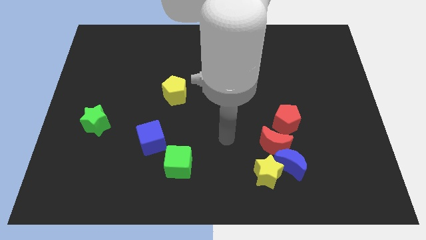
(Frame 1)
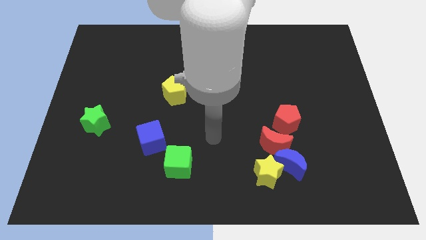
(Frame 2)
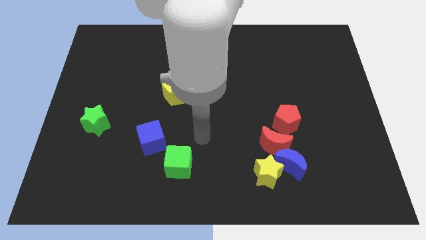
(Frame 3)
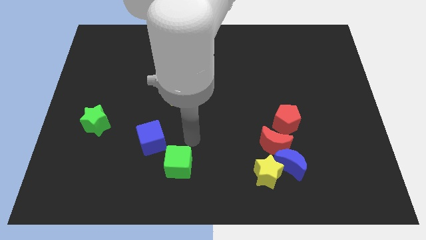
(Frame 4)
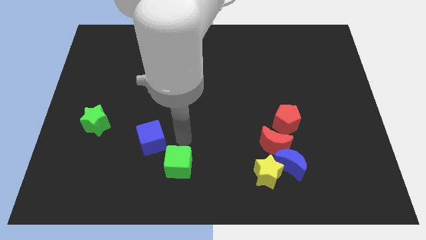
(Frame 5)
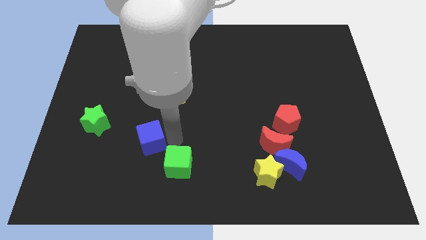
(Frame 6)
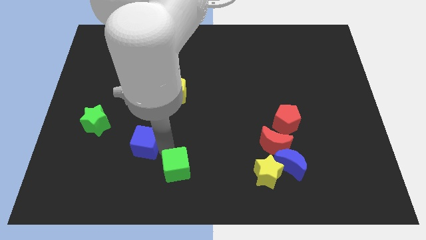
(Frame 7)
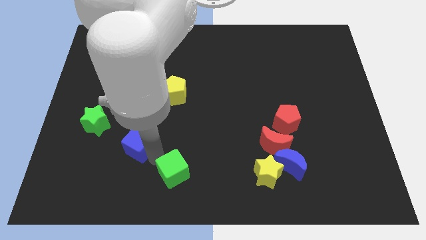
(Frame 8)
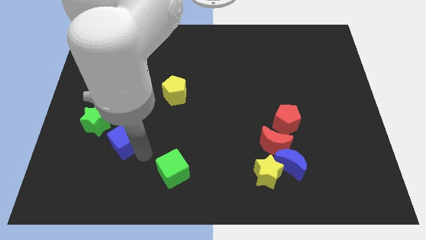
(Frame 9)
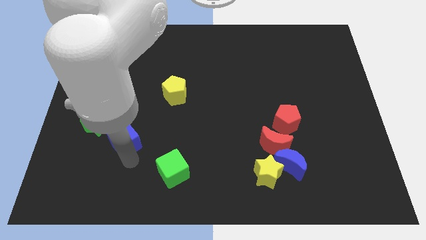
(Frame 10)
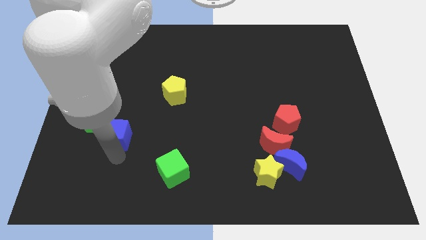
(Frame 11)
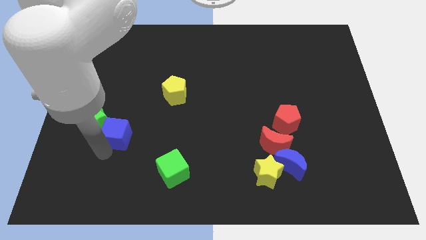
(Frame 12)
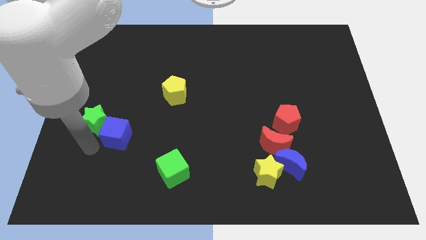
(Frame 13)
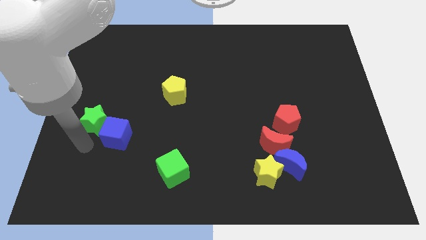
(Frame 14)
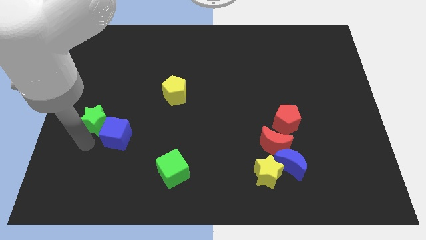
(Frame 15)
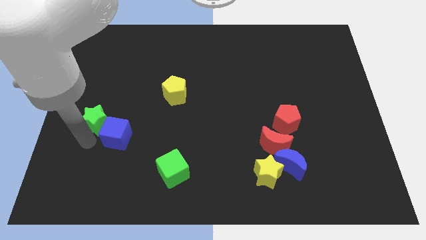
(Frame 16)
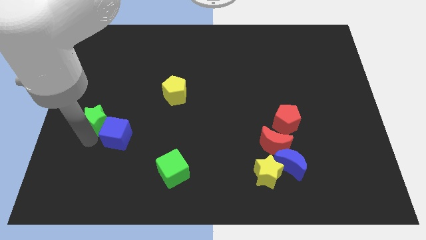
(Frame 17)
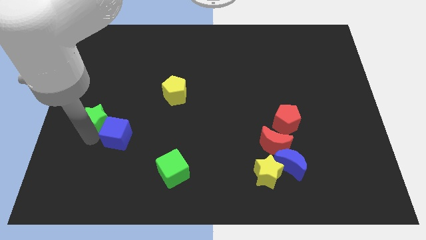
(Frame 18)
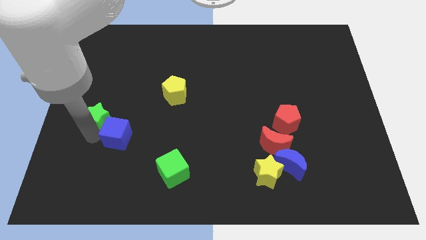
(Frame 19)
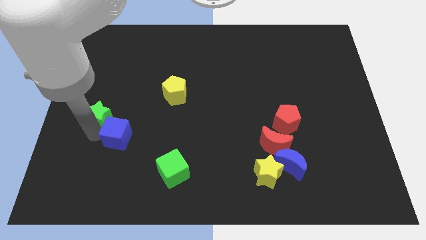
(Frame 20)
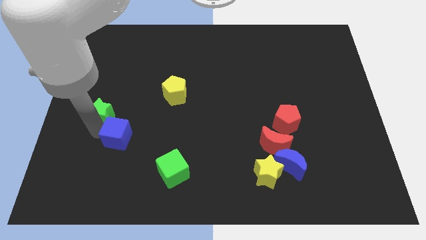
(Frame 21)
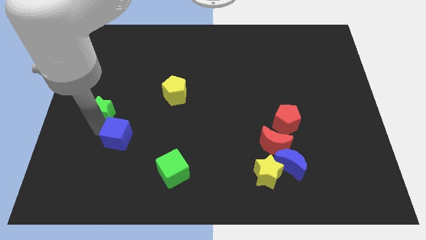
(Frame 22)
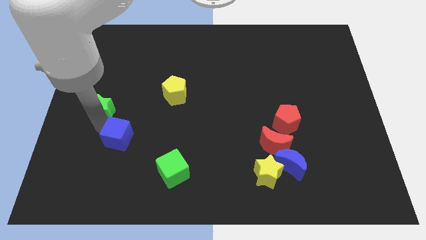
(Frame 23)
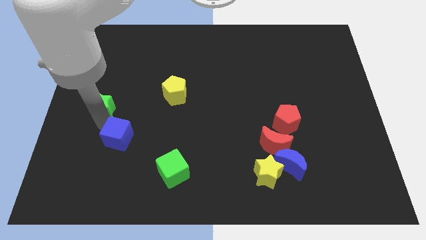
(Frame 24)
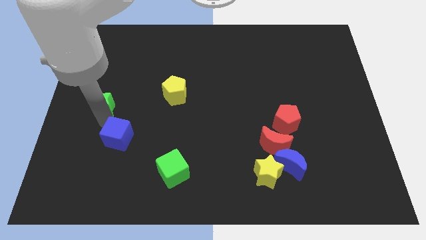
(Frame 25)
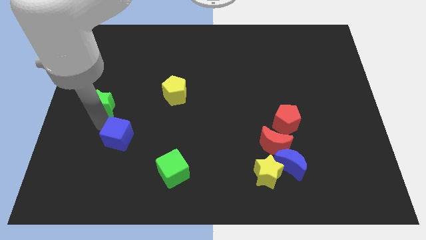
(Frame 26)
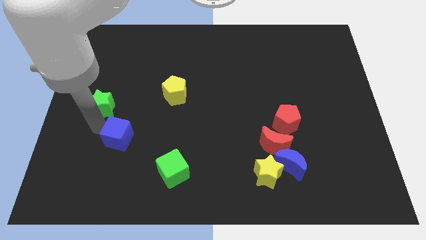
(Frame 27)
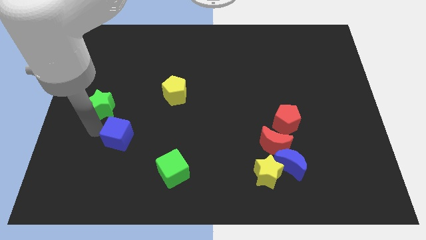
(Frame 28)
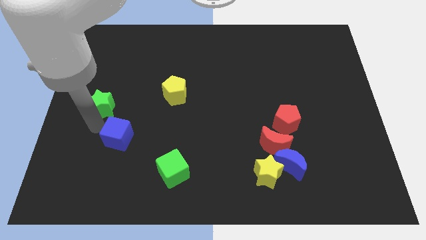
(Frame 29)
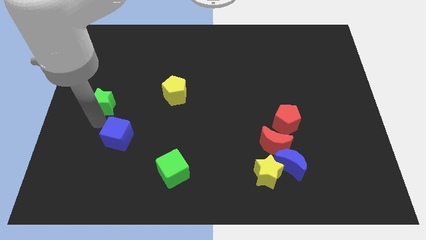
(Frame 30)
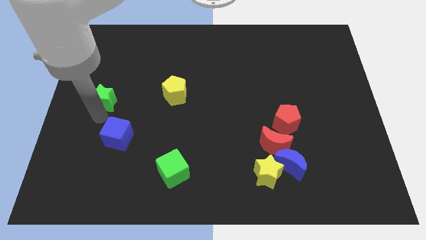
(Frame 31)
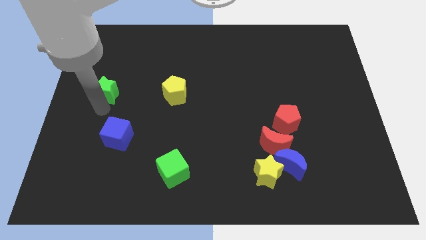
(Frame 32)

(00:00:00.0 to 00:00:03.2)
slightly push the green star upwards

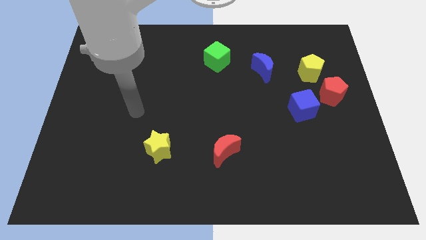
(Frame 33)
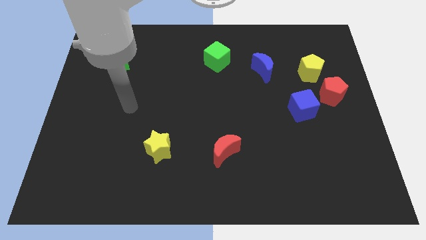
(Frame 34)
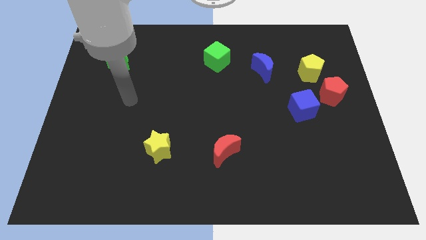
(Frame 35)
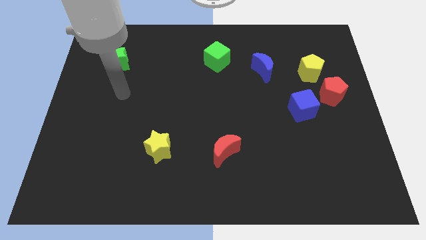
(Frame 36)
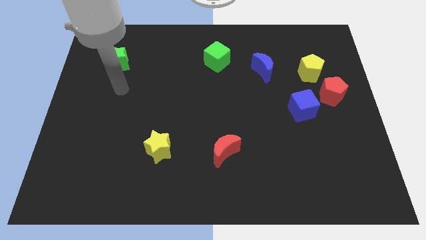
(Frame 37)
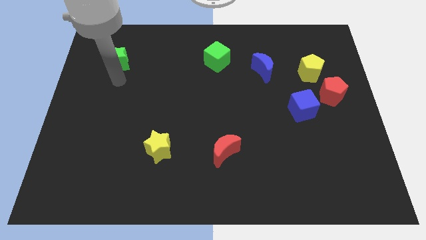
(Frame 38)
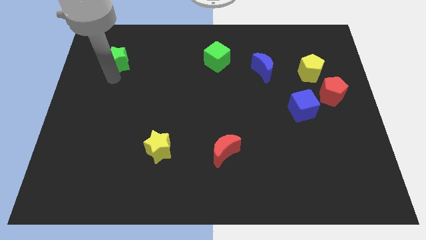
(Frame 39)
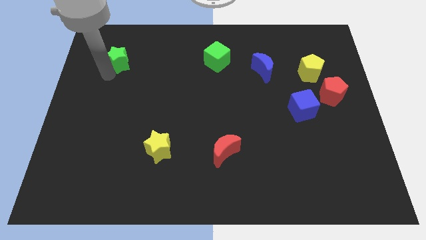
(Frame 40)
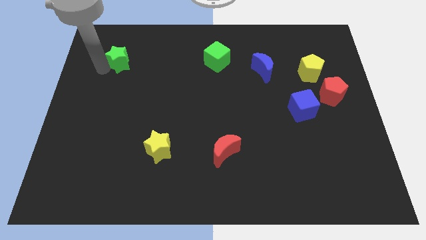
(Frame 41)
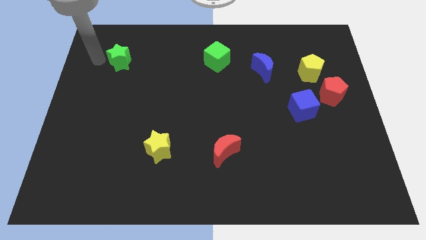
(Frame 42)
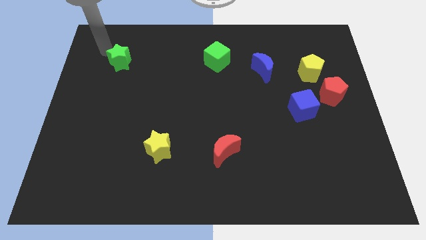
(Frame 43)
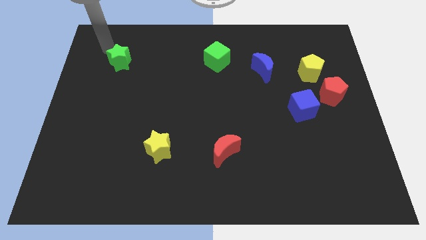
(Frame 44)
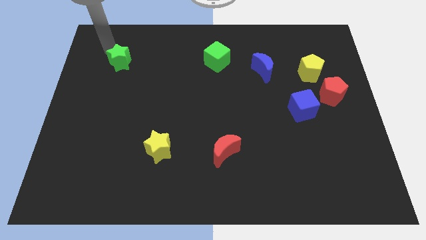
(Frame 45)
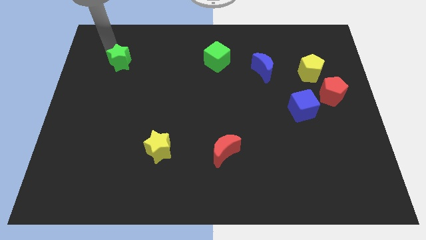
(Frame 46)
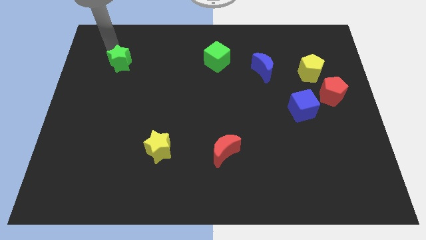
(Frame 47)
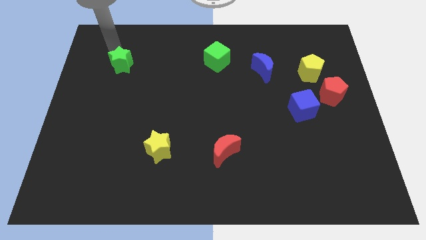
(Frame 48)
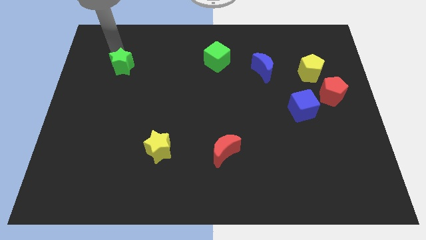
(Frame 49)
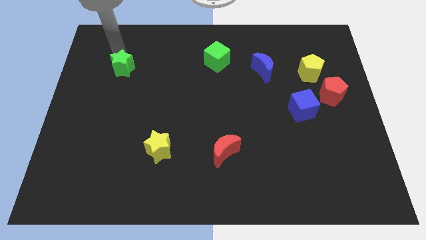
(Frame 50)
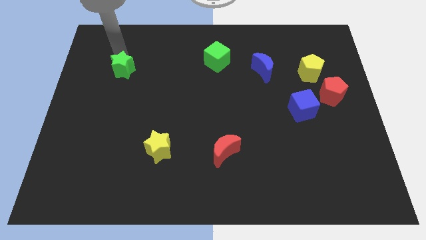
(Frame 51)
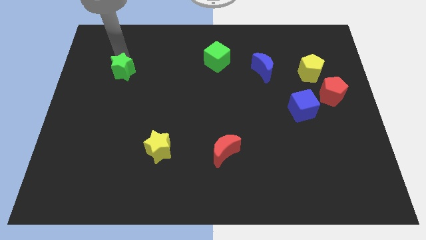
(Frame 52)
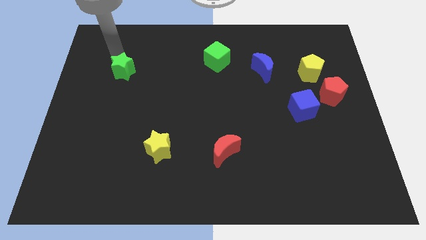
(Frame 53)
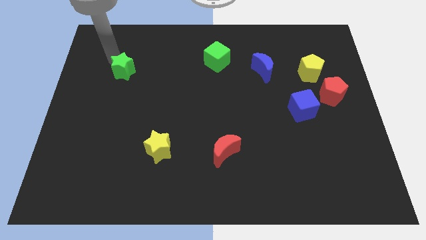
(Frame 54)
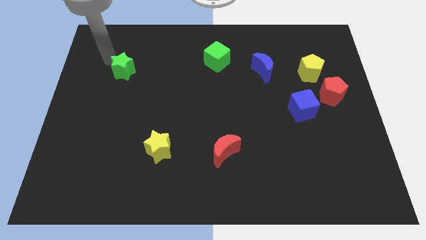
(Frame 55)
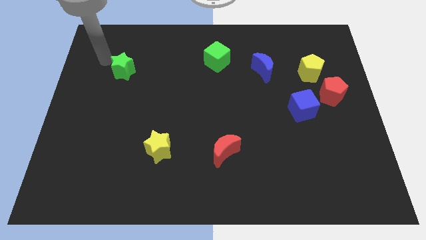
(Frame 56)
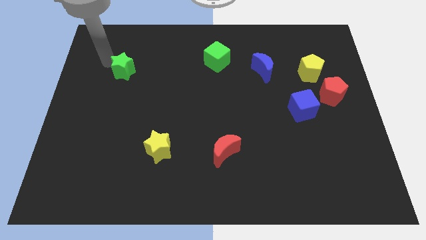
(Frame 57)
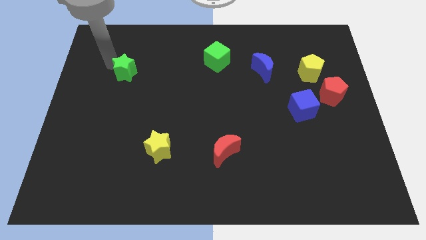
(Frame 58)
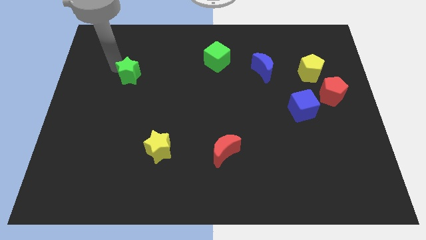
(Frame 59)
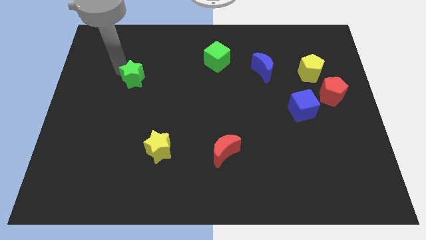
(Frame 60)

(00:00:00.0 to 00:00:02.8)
push the green star somewhat downwards and then to the right

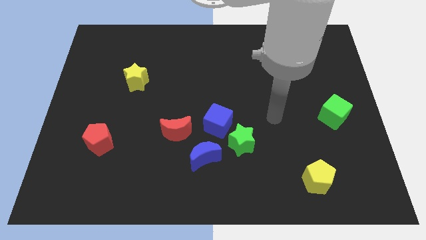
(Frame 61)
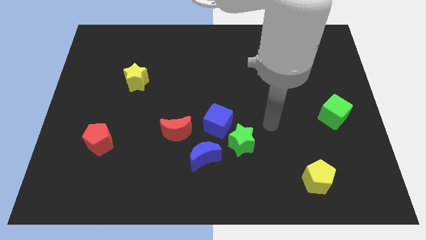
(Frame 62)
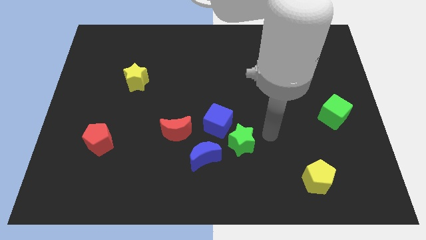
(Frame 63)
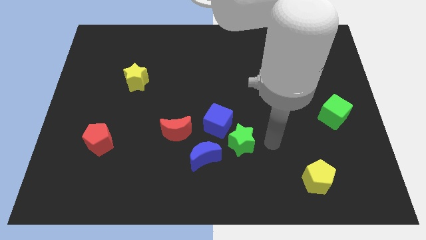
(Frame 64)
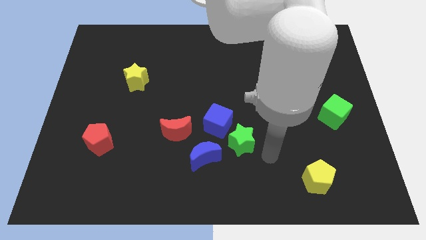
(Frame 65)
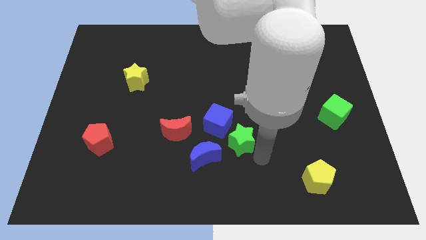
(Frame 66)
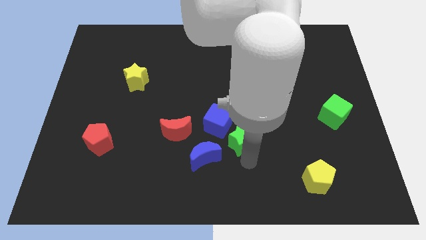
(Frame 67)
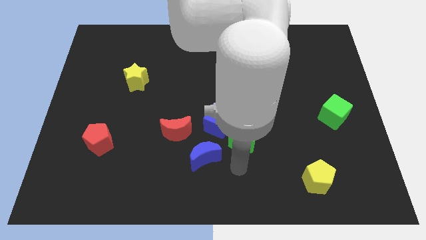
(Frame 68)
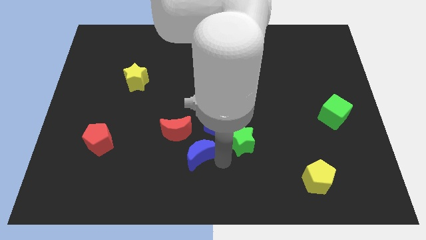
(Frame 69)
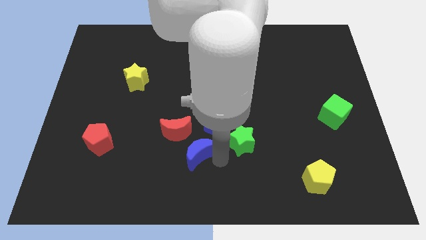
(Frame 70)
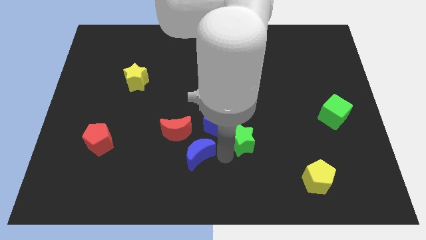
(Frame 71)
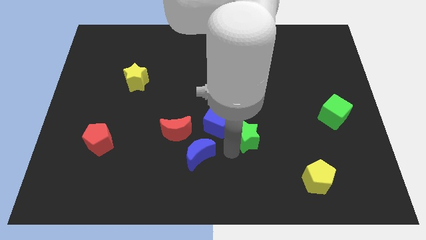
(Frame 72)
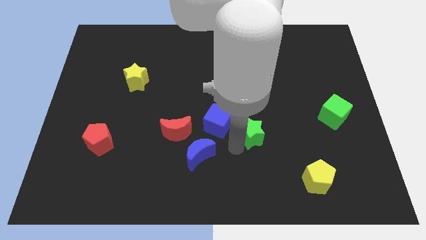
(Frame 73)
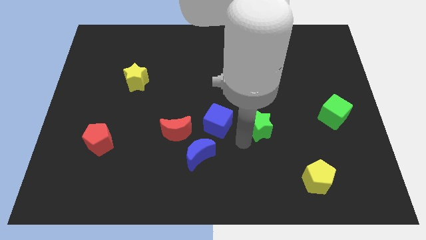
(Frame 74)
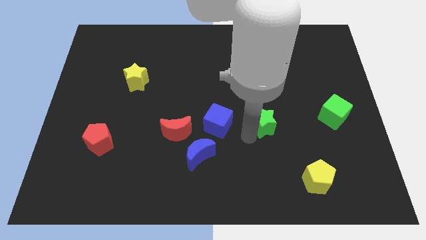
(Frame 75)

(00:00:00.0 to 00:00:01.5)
slightly slide the green star diagonally up and right

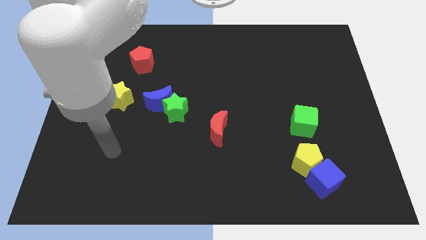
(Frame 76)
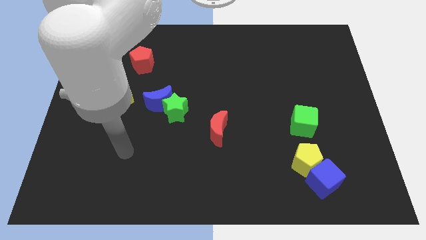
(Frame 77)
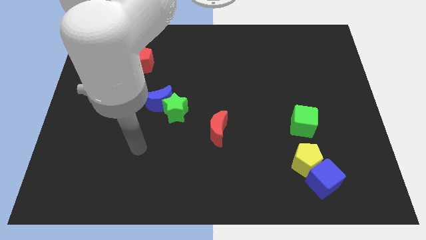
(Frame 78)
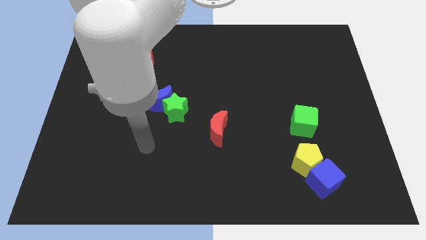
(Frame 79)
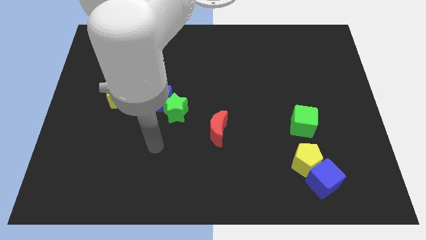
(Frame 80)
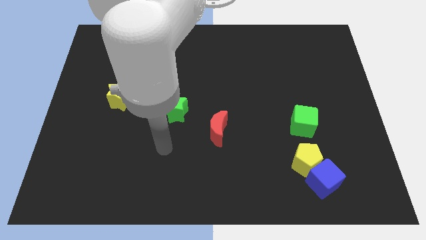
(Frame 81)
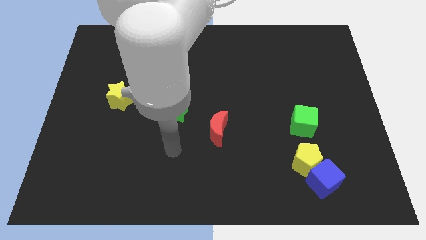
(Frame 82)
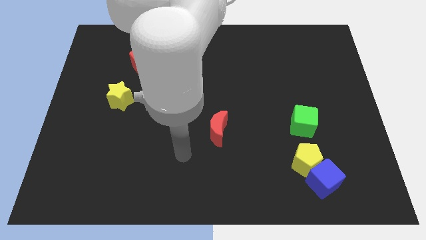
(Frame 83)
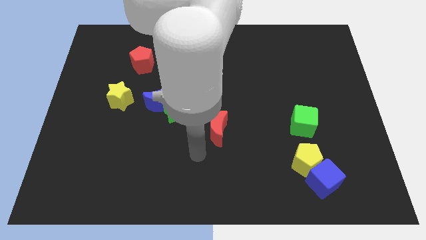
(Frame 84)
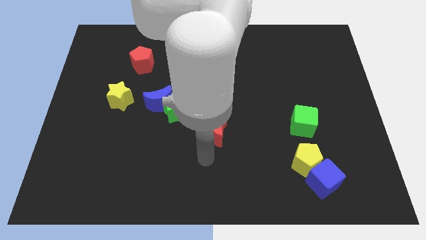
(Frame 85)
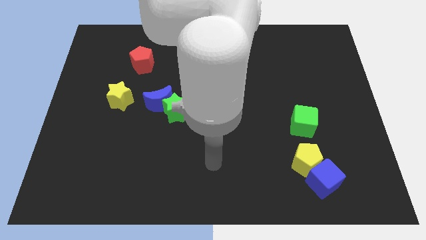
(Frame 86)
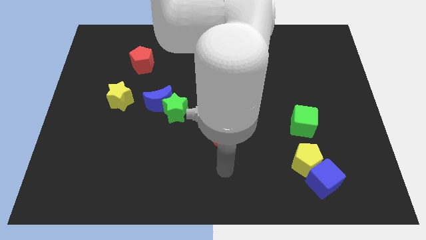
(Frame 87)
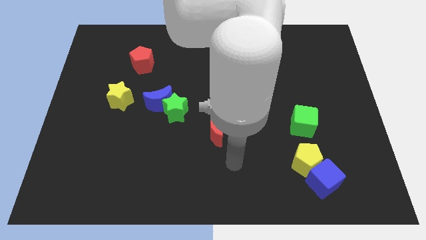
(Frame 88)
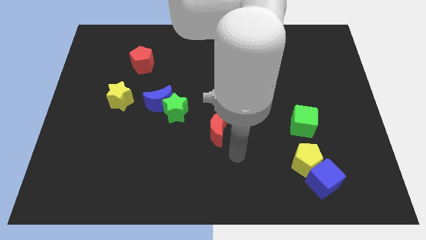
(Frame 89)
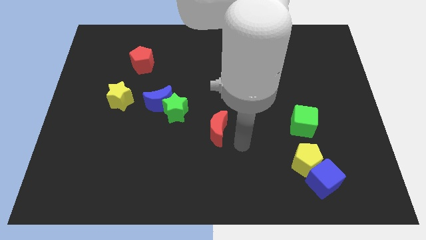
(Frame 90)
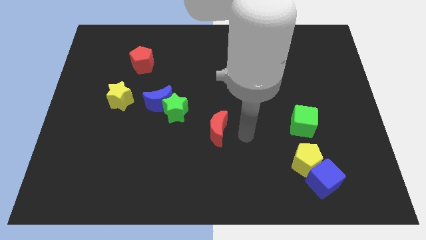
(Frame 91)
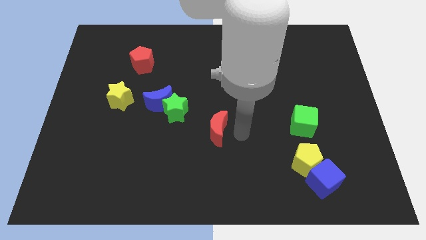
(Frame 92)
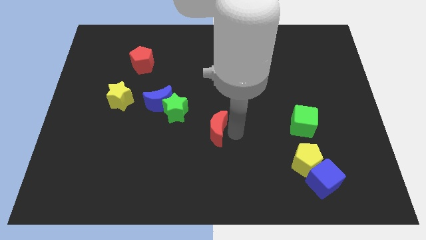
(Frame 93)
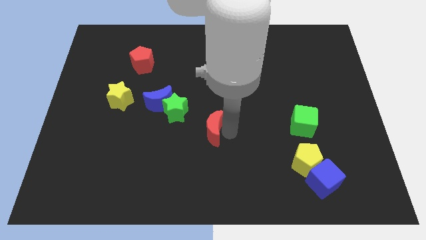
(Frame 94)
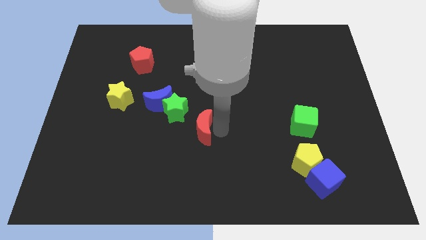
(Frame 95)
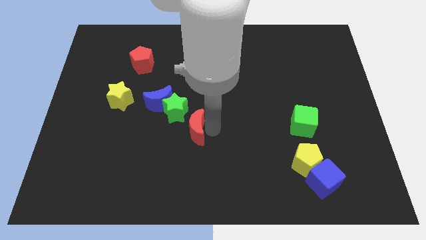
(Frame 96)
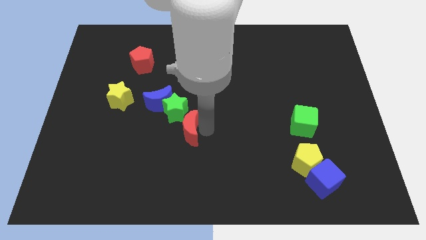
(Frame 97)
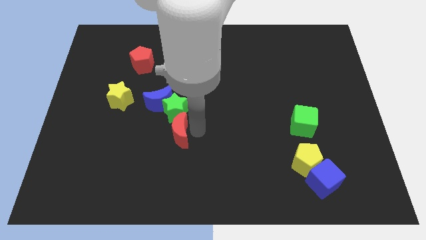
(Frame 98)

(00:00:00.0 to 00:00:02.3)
push the red moon left somewhat
